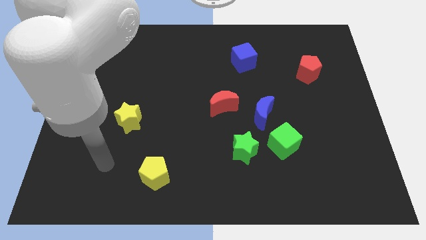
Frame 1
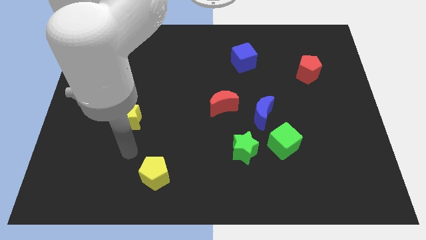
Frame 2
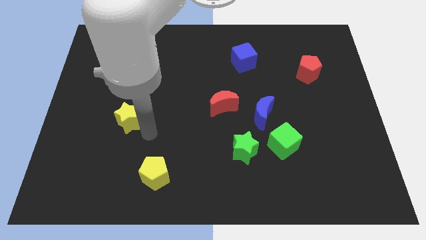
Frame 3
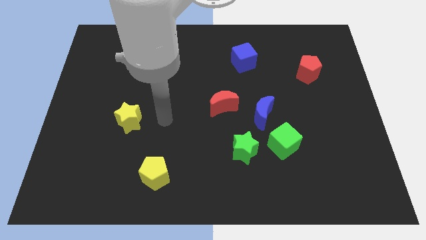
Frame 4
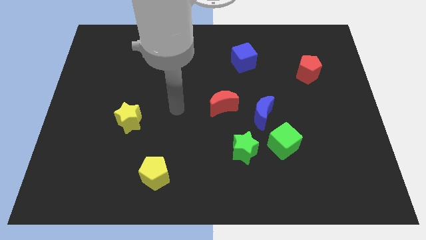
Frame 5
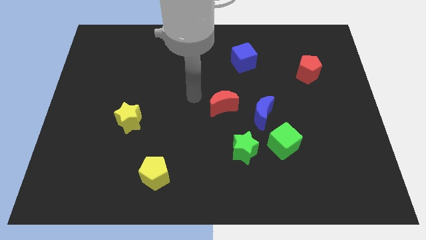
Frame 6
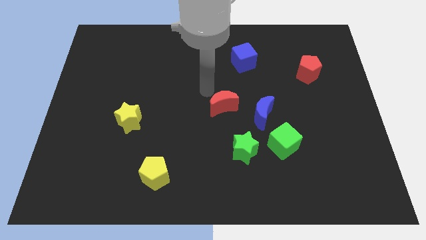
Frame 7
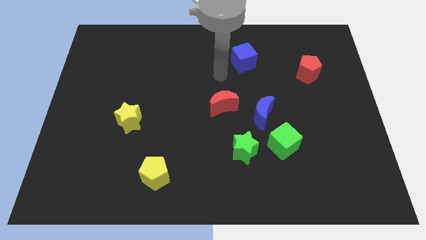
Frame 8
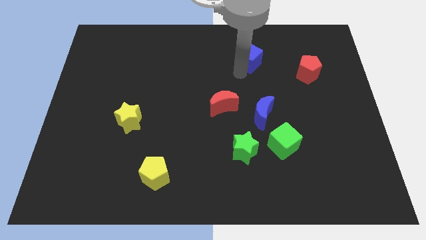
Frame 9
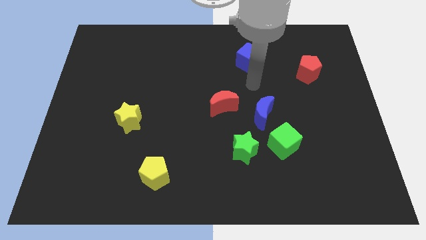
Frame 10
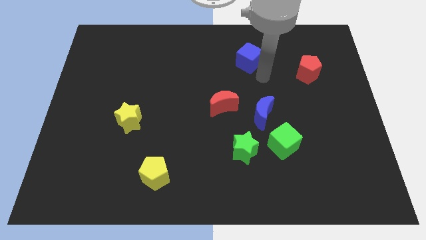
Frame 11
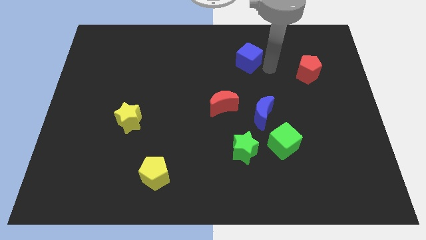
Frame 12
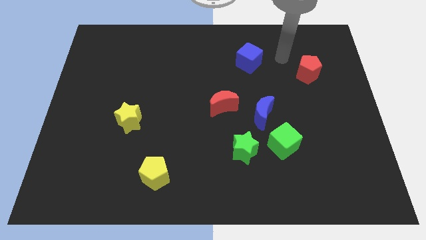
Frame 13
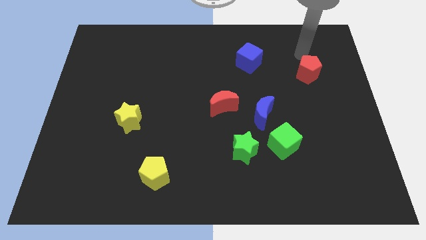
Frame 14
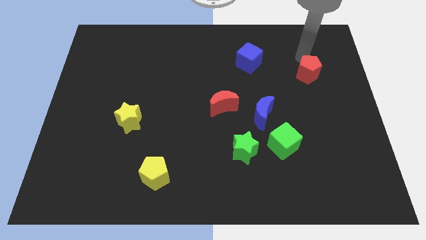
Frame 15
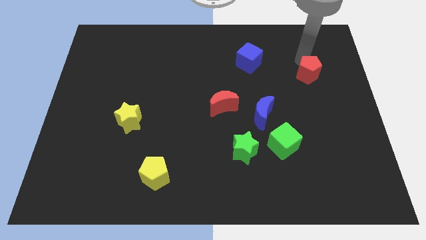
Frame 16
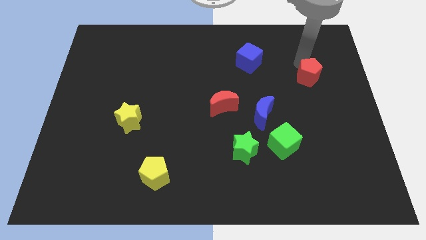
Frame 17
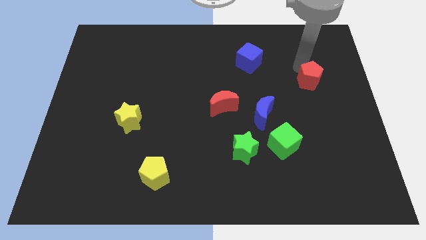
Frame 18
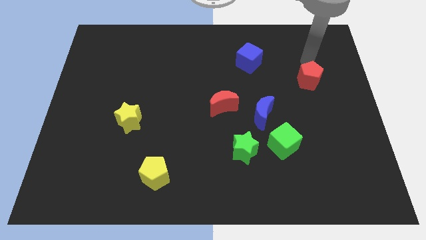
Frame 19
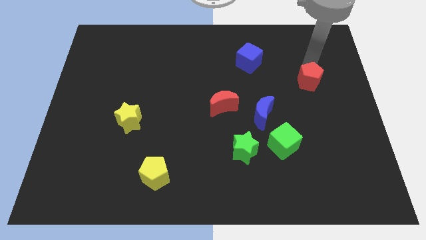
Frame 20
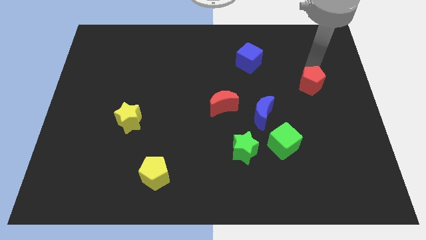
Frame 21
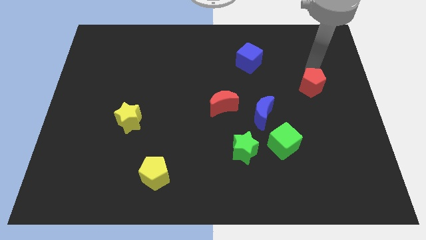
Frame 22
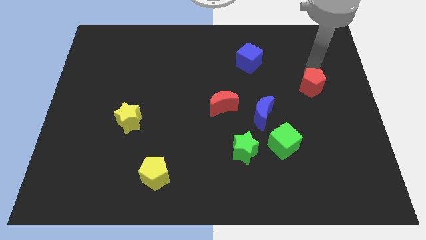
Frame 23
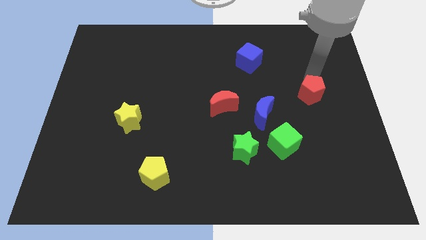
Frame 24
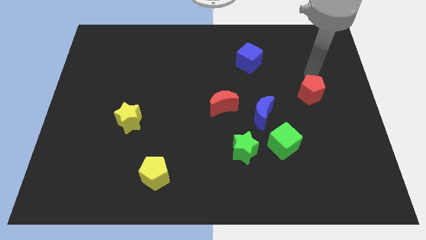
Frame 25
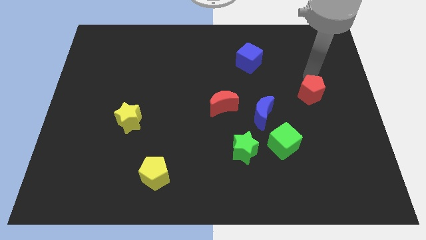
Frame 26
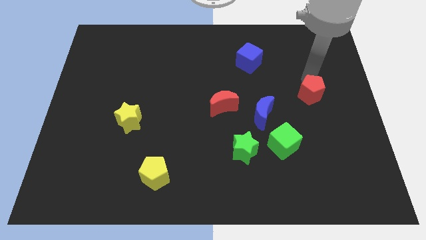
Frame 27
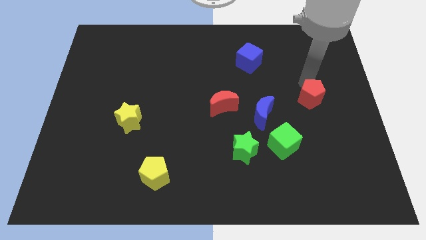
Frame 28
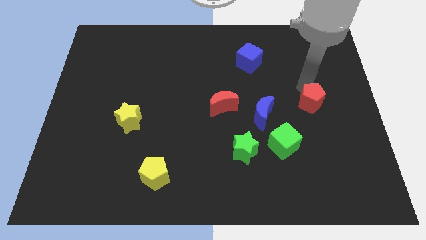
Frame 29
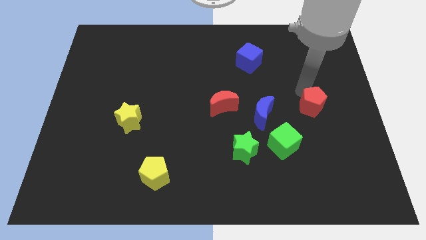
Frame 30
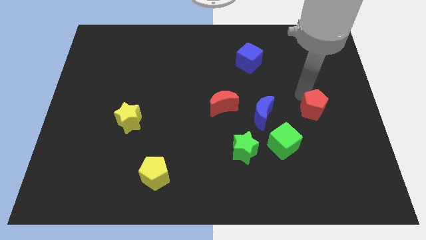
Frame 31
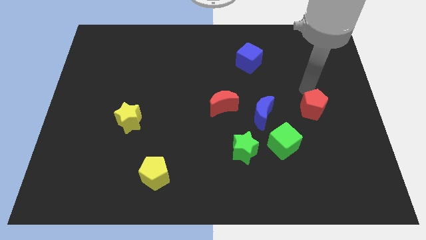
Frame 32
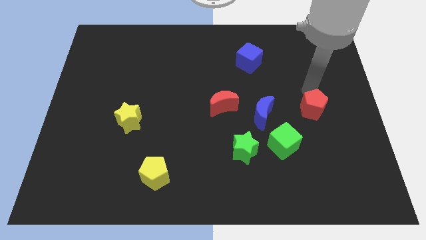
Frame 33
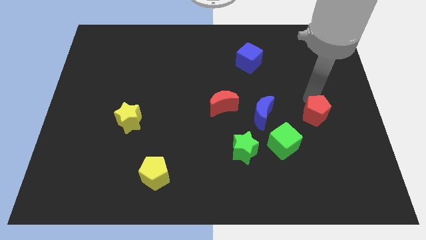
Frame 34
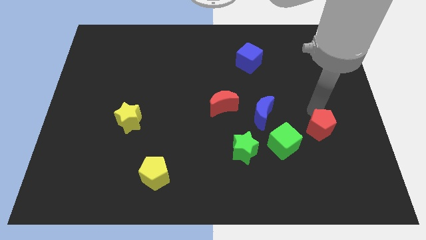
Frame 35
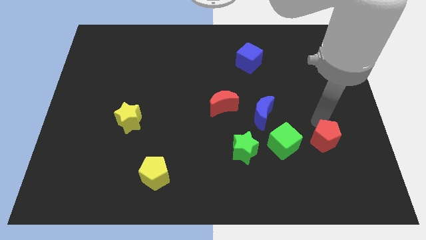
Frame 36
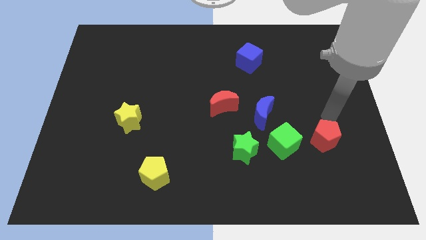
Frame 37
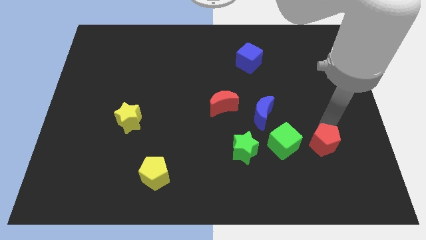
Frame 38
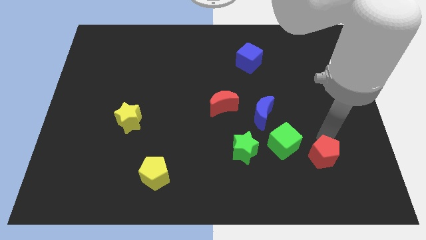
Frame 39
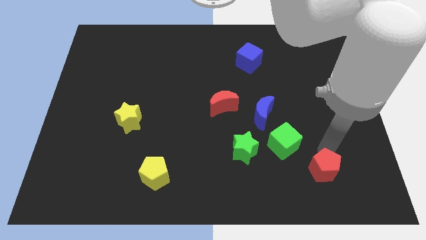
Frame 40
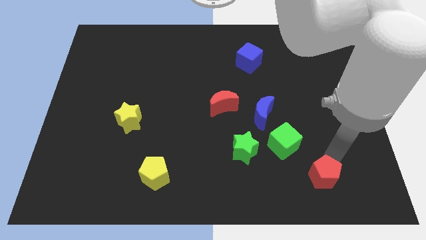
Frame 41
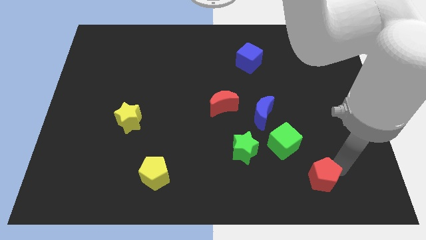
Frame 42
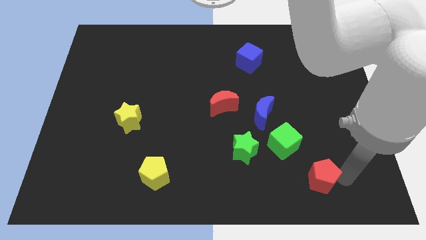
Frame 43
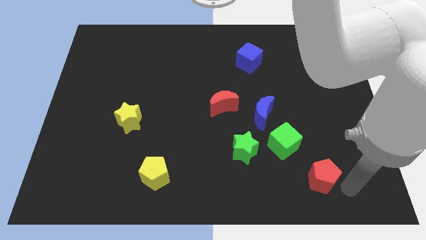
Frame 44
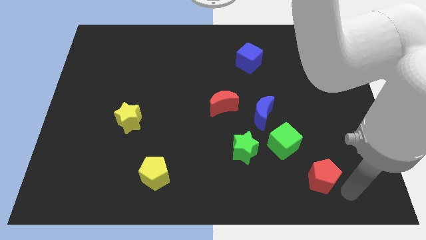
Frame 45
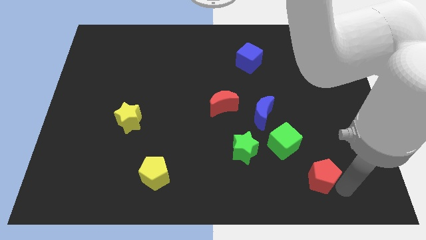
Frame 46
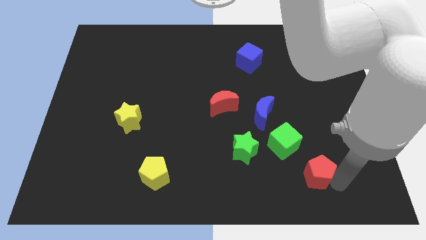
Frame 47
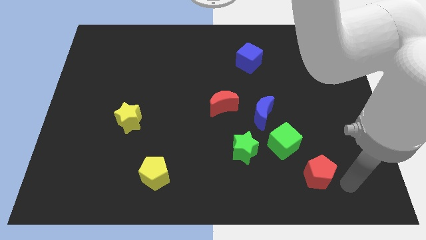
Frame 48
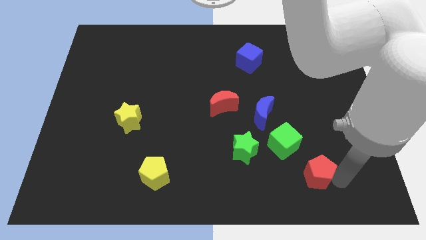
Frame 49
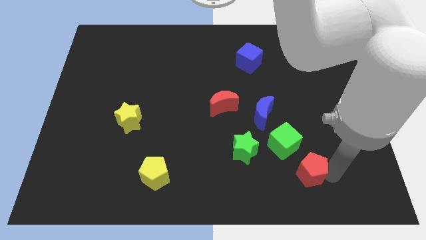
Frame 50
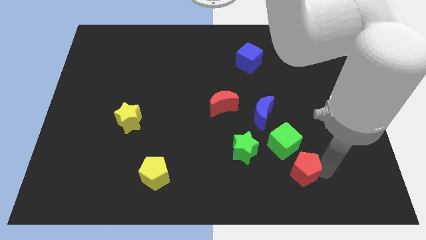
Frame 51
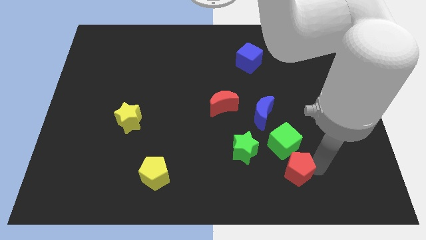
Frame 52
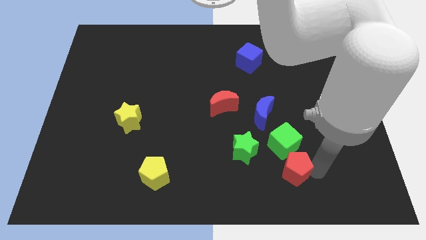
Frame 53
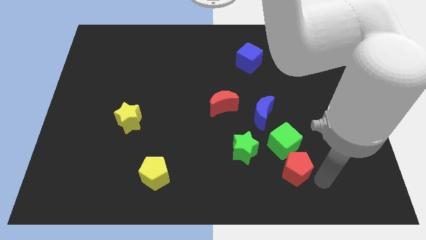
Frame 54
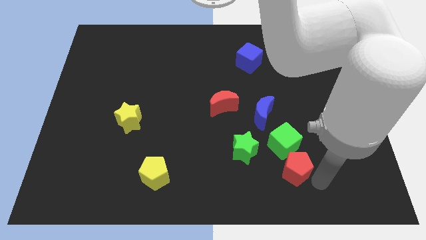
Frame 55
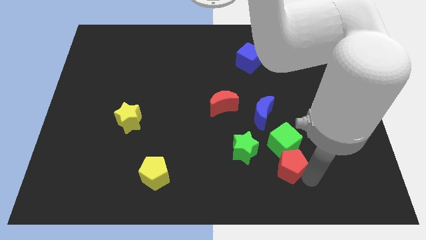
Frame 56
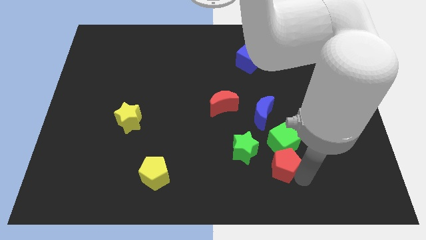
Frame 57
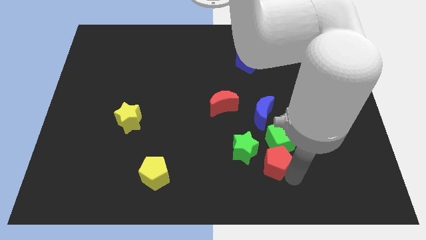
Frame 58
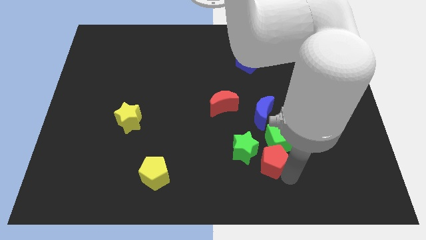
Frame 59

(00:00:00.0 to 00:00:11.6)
push the red pentagon to the green star

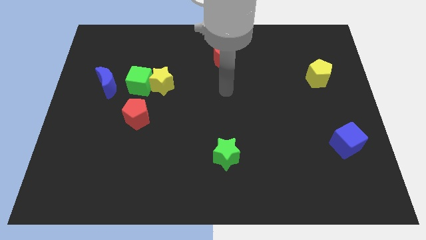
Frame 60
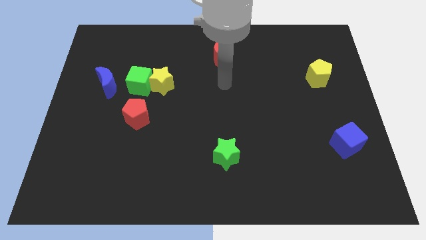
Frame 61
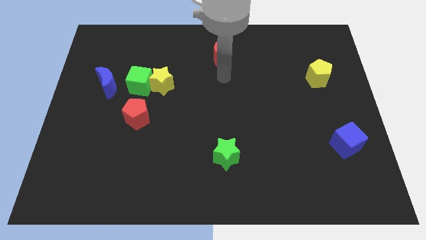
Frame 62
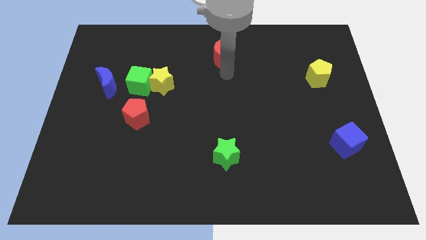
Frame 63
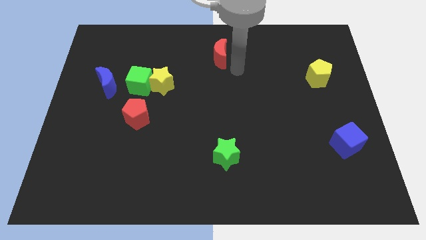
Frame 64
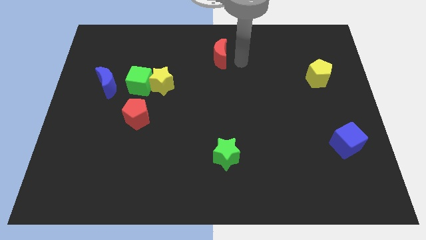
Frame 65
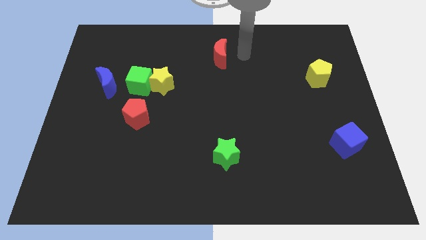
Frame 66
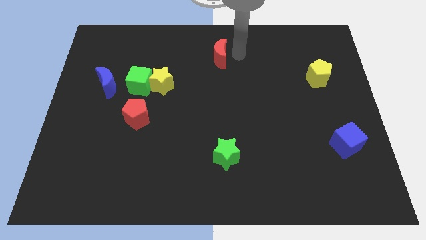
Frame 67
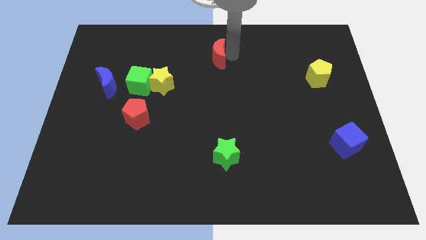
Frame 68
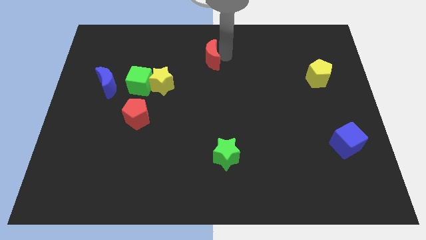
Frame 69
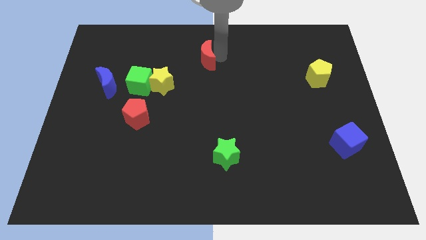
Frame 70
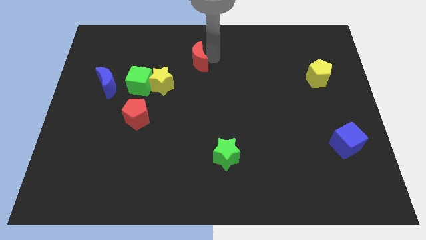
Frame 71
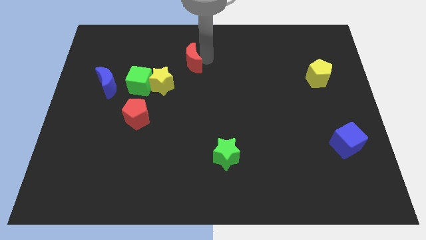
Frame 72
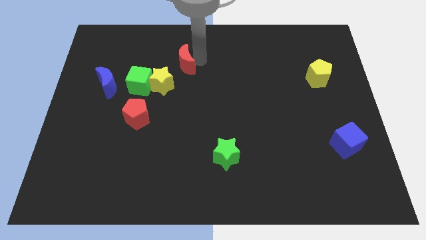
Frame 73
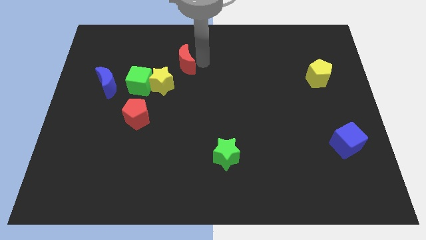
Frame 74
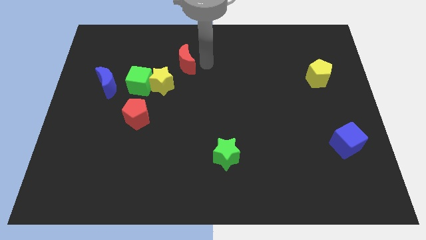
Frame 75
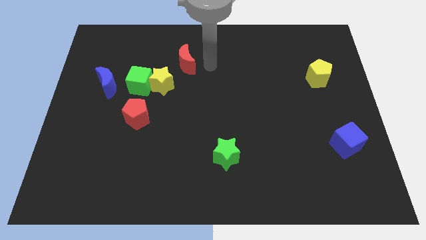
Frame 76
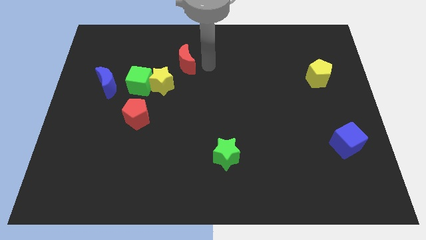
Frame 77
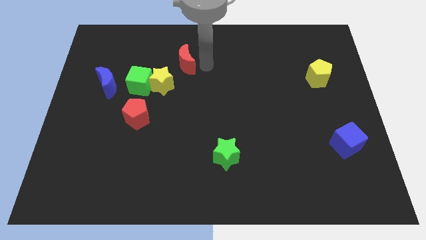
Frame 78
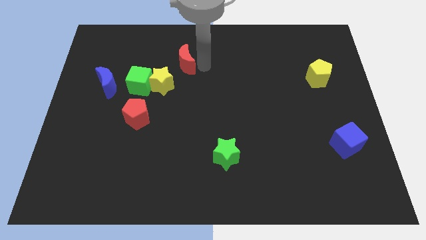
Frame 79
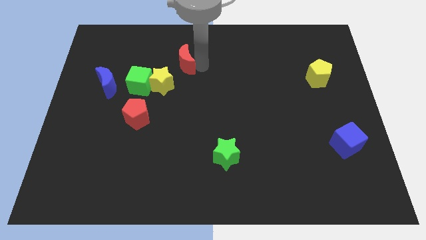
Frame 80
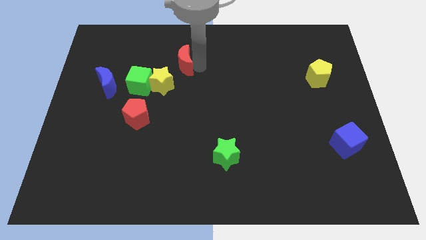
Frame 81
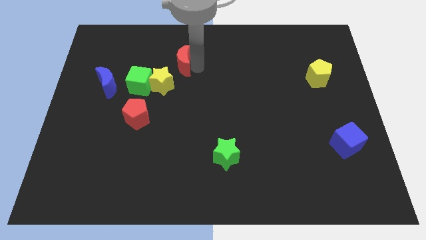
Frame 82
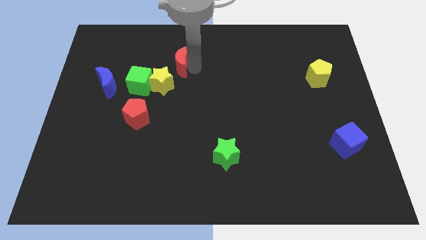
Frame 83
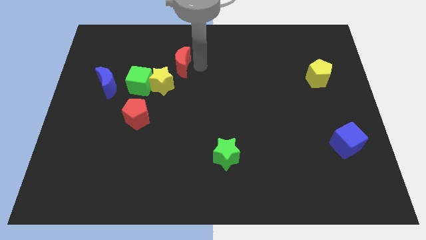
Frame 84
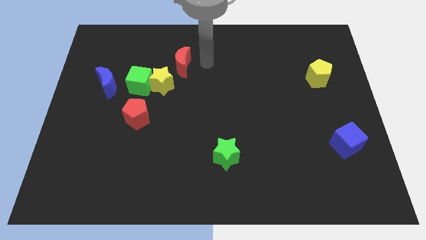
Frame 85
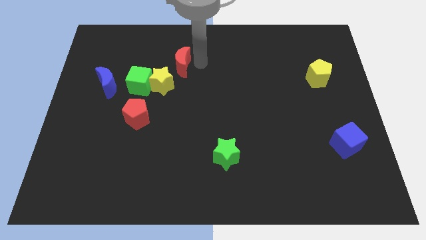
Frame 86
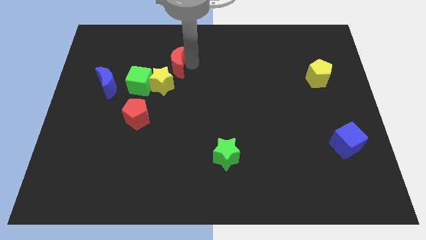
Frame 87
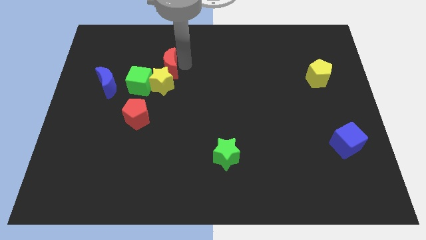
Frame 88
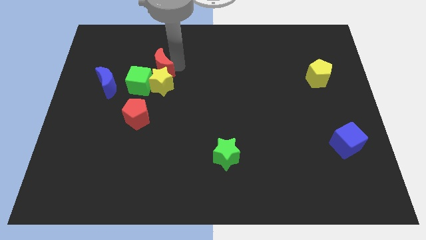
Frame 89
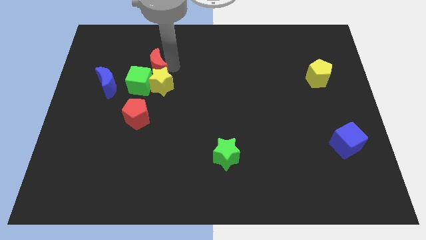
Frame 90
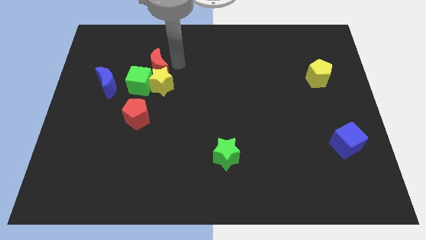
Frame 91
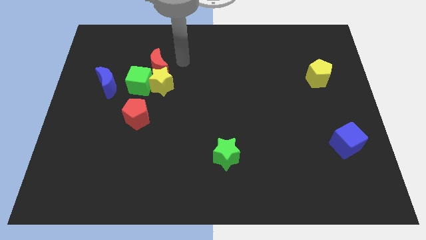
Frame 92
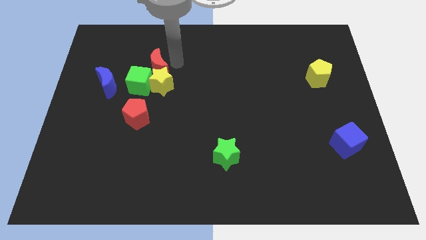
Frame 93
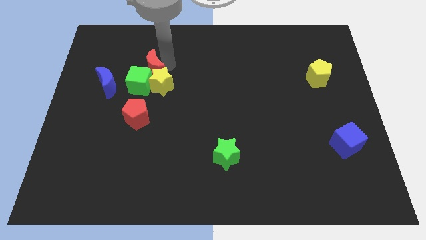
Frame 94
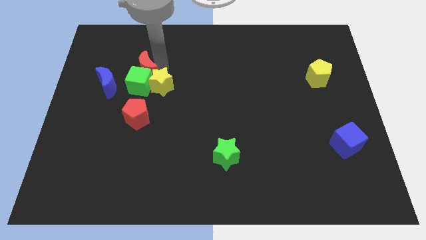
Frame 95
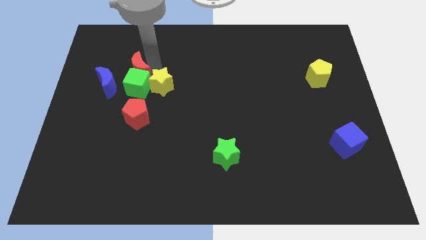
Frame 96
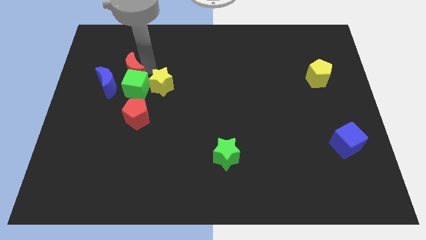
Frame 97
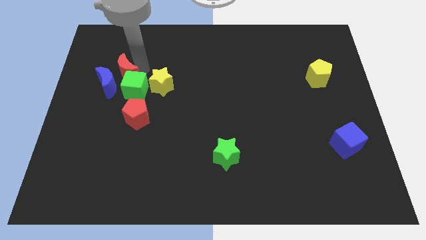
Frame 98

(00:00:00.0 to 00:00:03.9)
move the red moon towards the blue moon
